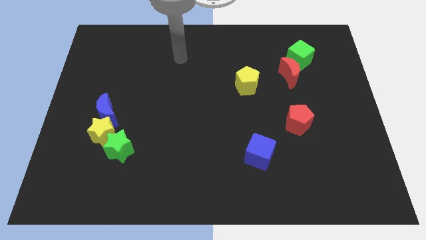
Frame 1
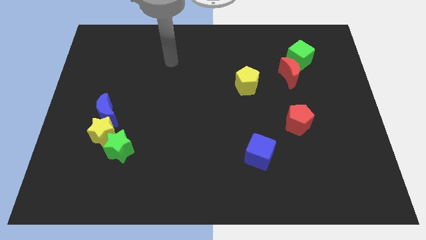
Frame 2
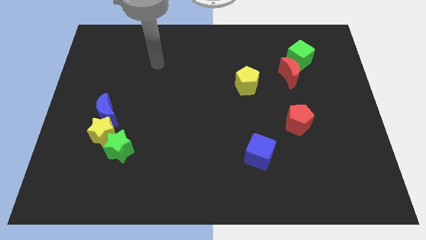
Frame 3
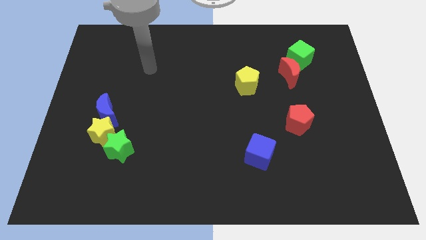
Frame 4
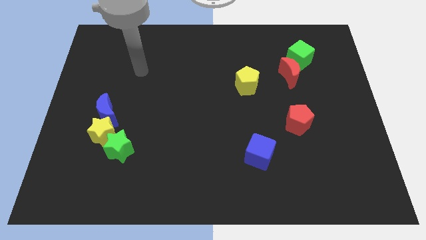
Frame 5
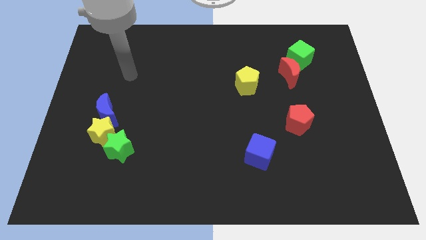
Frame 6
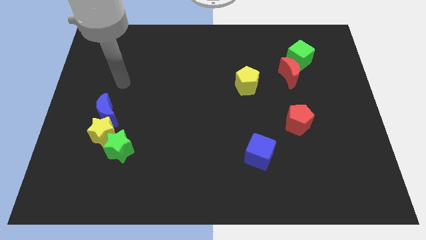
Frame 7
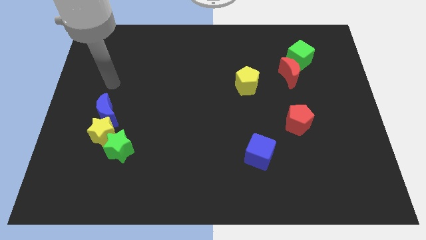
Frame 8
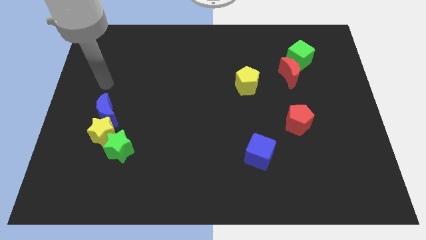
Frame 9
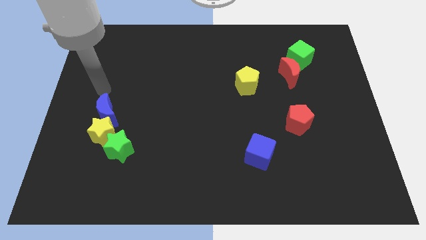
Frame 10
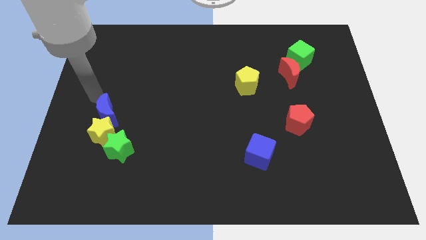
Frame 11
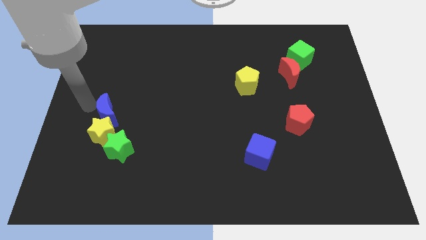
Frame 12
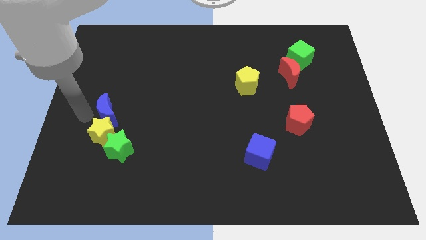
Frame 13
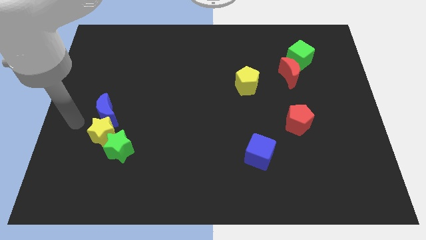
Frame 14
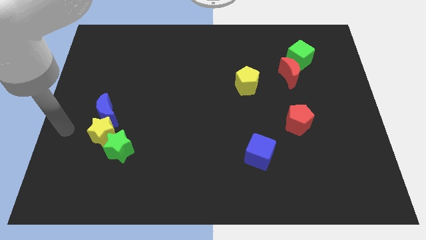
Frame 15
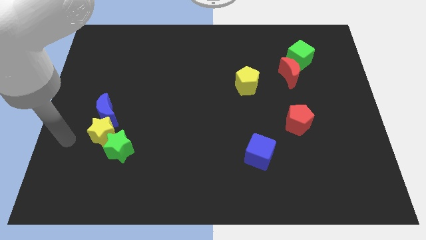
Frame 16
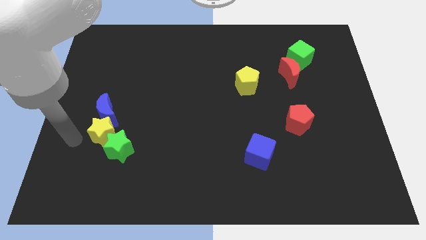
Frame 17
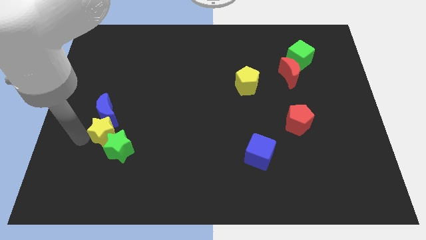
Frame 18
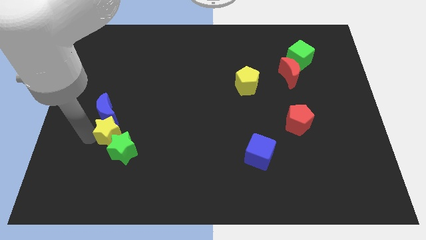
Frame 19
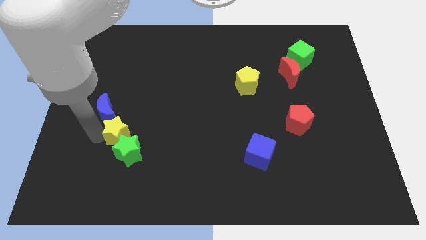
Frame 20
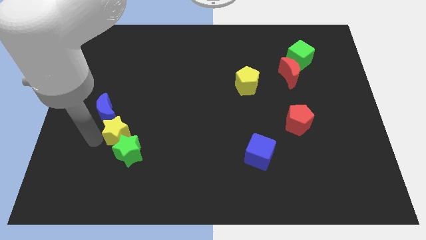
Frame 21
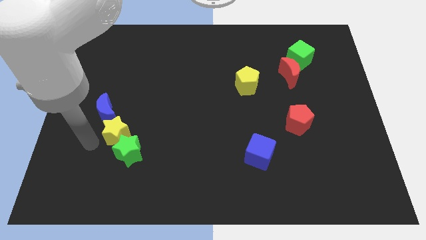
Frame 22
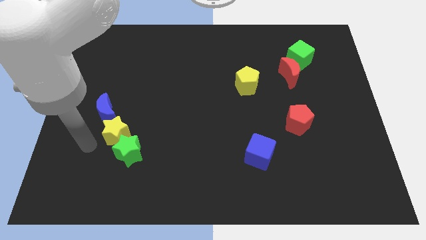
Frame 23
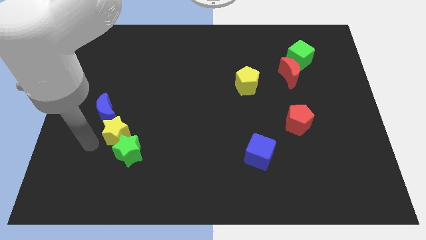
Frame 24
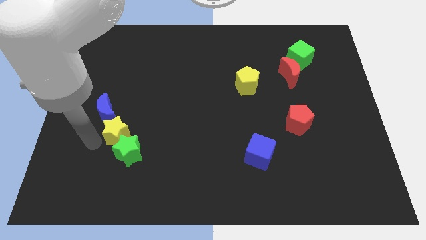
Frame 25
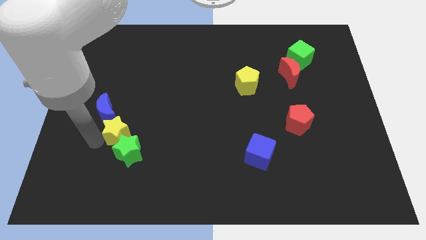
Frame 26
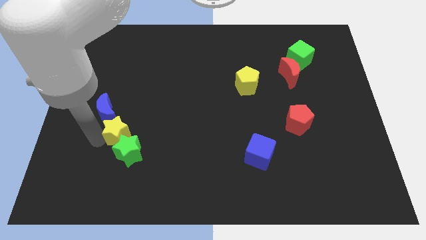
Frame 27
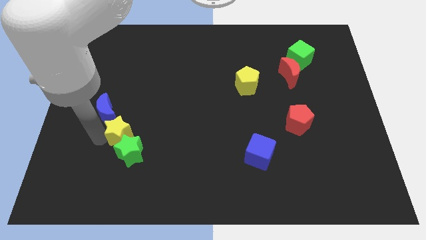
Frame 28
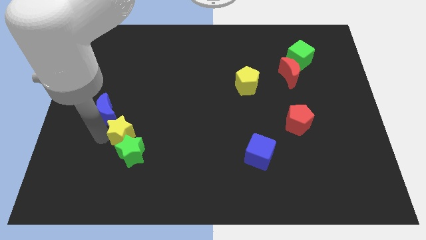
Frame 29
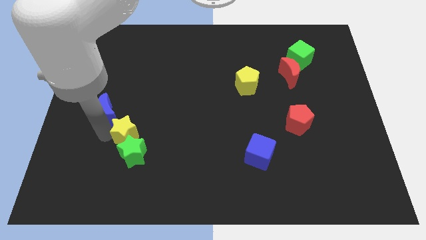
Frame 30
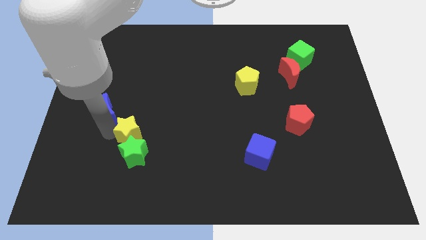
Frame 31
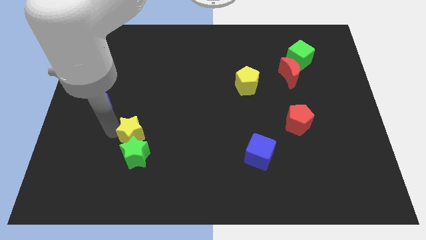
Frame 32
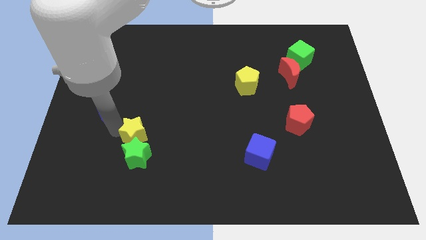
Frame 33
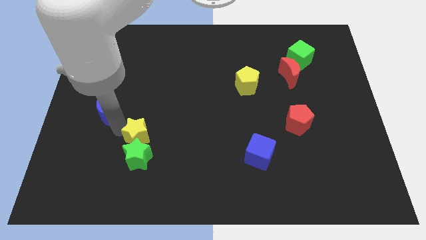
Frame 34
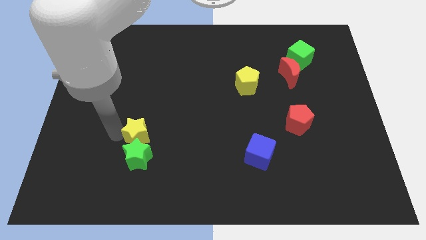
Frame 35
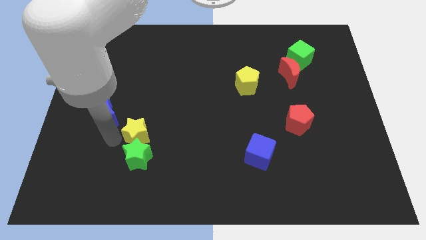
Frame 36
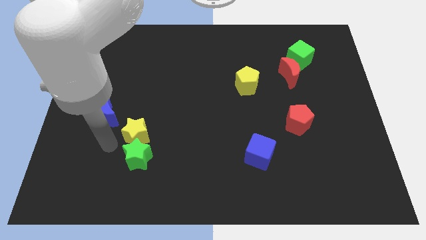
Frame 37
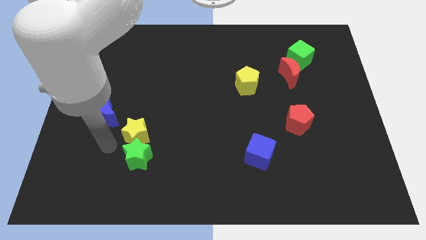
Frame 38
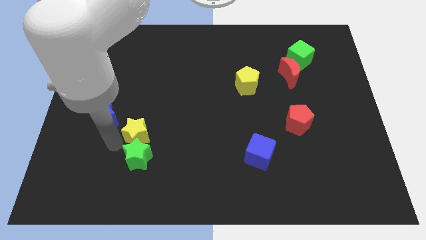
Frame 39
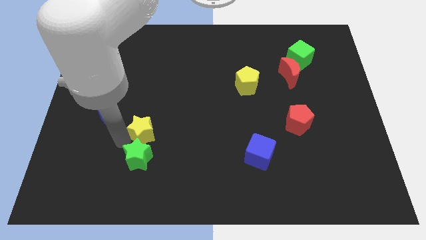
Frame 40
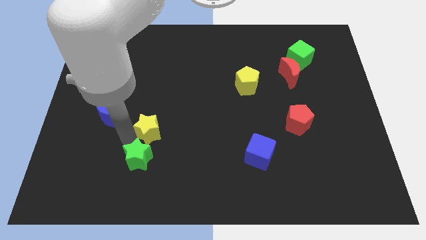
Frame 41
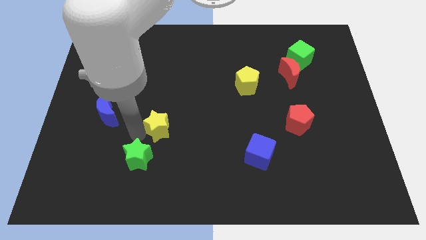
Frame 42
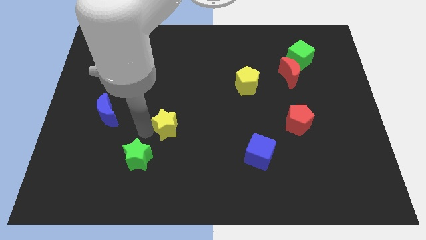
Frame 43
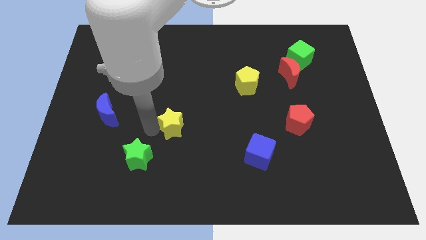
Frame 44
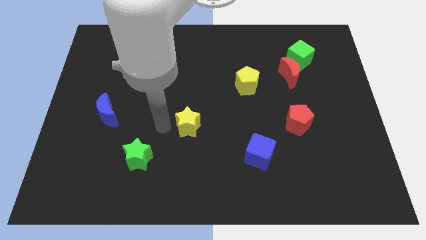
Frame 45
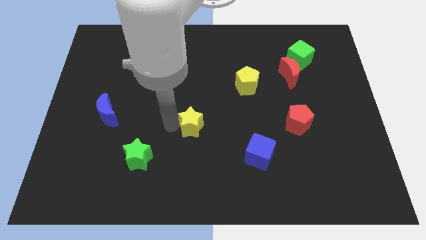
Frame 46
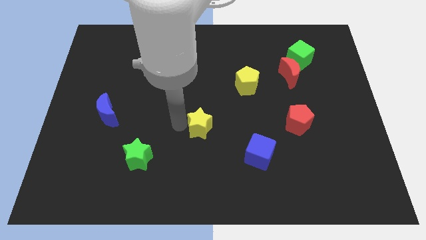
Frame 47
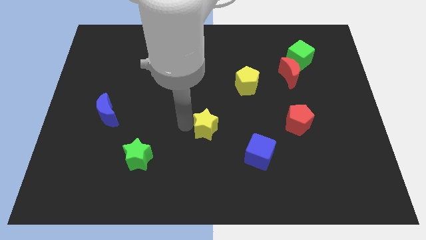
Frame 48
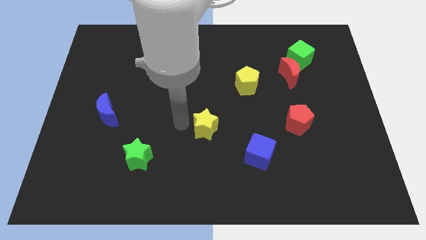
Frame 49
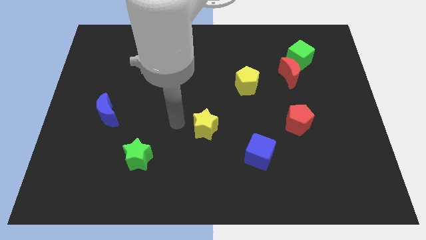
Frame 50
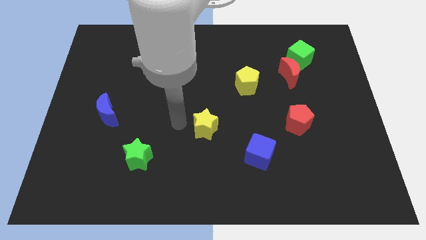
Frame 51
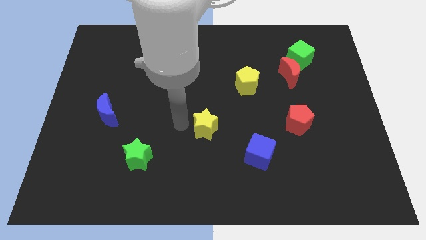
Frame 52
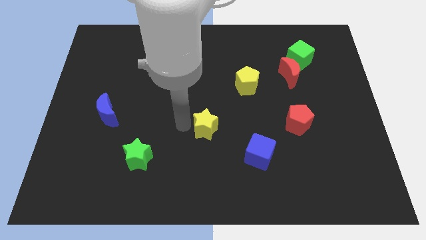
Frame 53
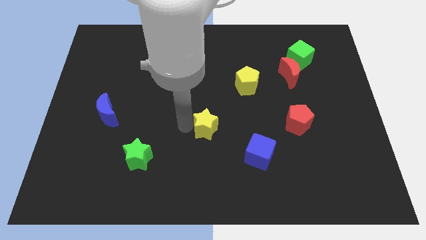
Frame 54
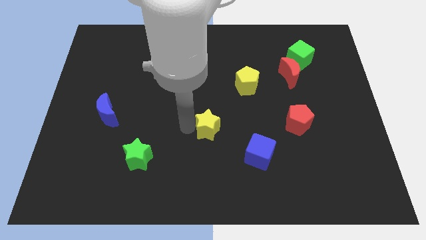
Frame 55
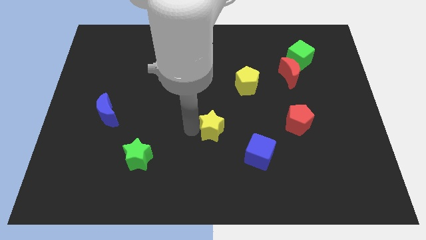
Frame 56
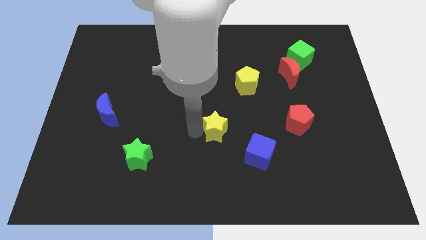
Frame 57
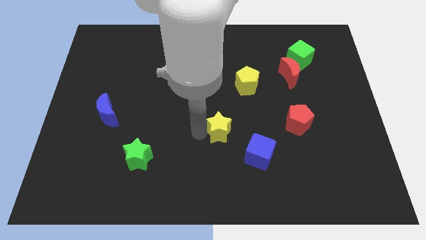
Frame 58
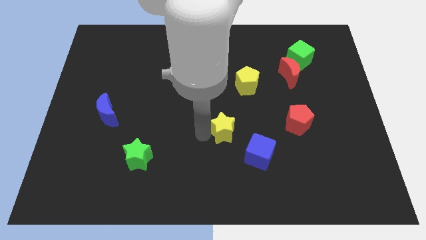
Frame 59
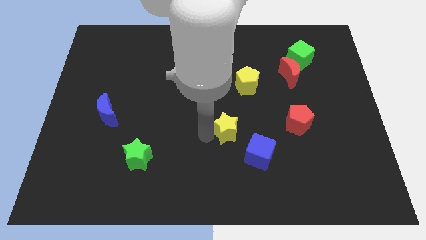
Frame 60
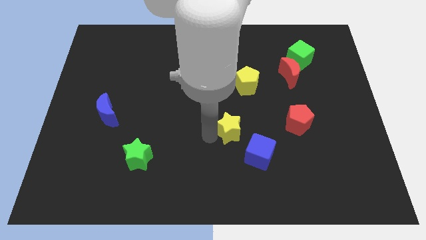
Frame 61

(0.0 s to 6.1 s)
slide the yellow star just left of the red pentagon

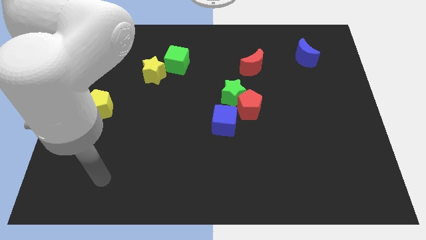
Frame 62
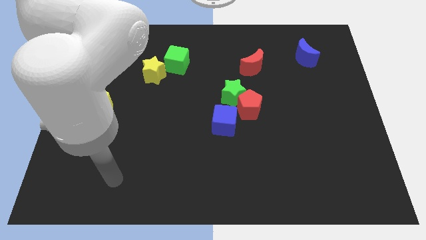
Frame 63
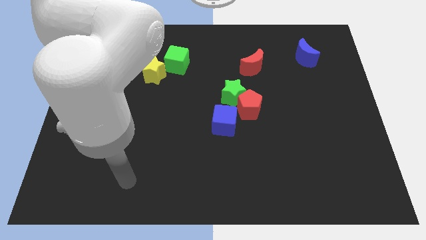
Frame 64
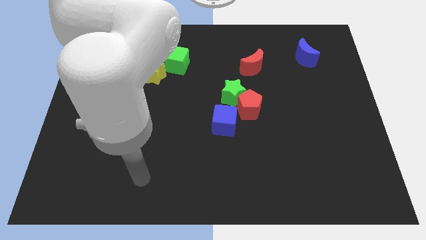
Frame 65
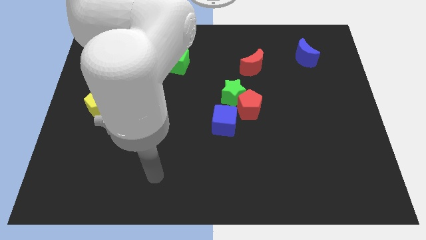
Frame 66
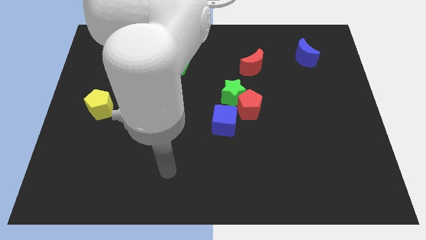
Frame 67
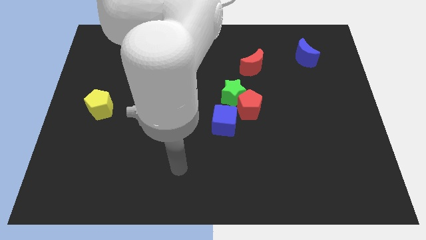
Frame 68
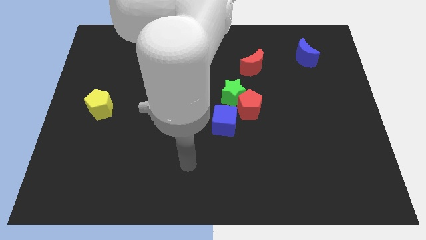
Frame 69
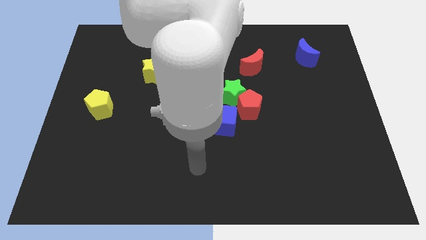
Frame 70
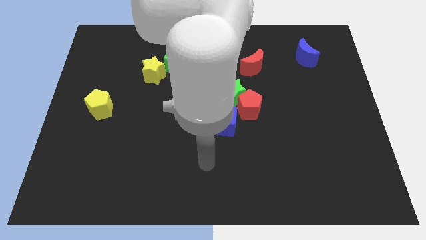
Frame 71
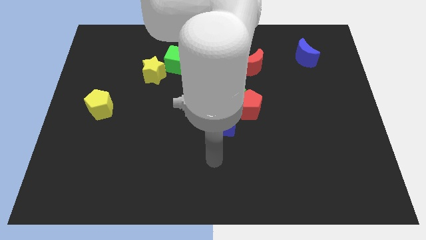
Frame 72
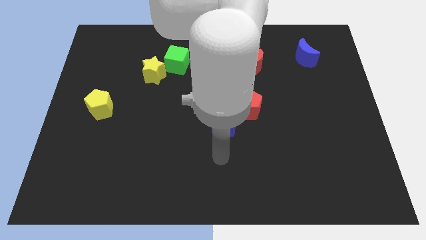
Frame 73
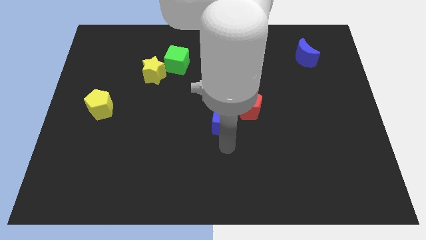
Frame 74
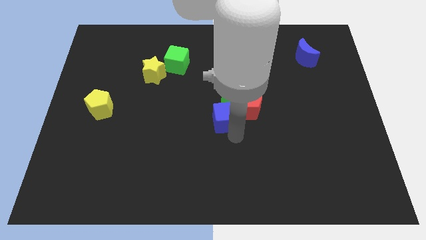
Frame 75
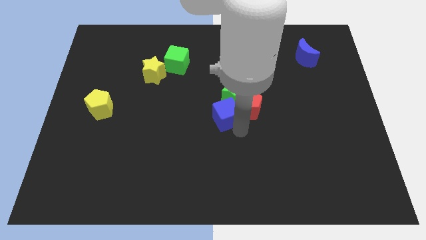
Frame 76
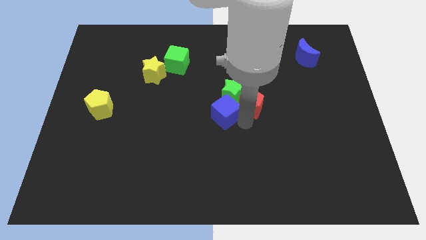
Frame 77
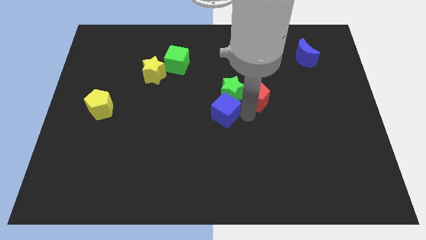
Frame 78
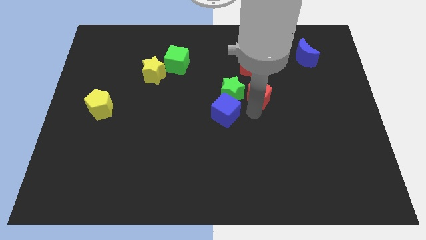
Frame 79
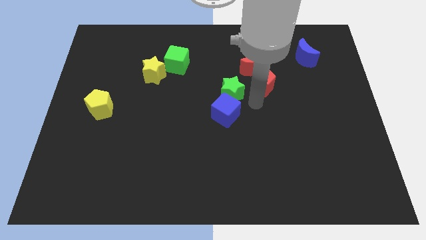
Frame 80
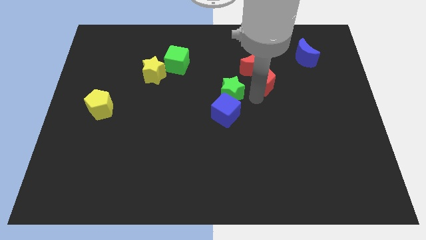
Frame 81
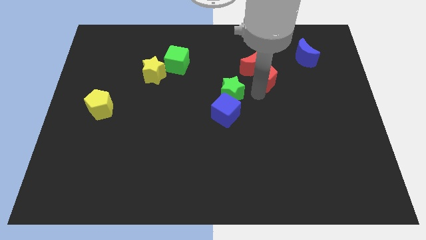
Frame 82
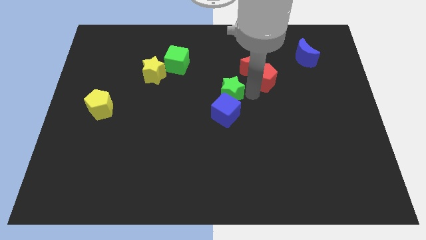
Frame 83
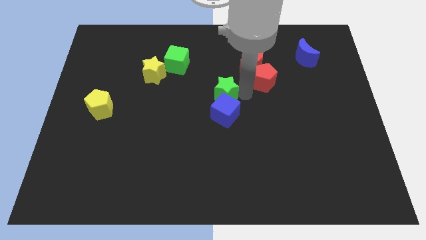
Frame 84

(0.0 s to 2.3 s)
slide the green star to the top left side of the blue cube
